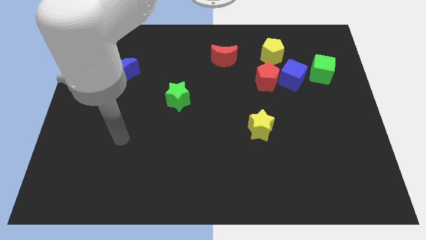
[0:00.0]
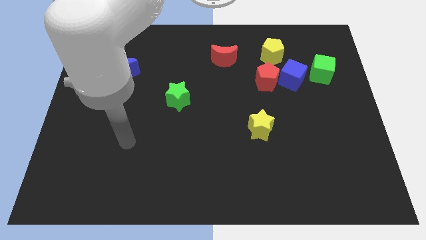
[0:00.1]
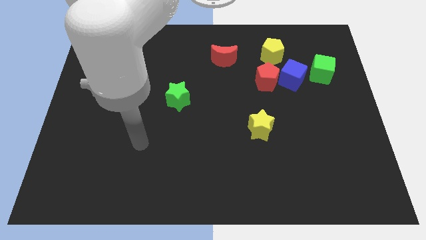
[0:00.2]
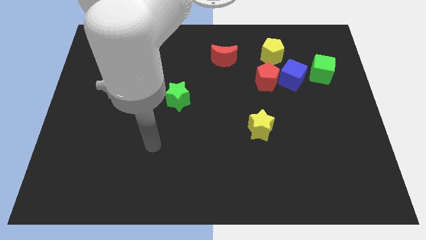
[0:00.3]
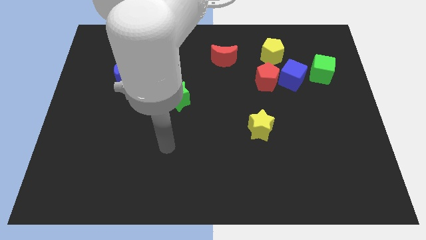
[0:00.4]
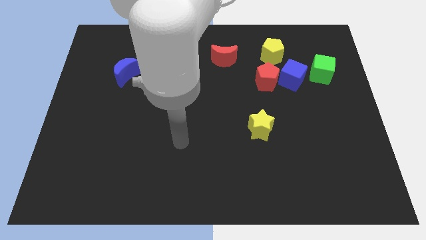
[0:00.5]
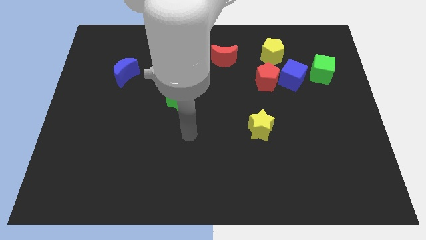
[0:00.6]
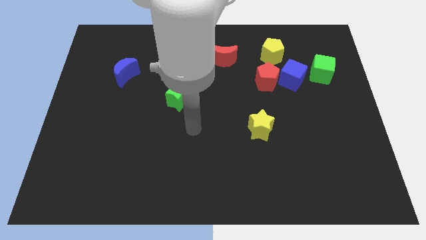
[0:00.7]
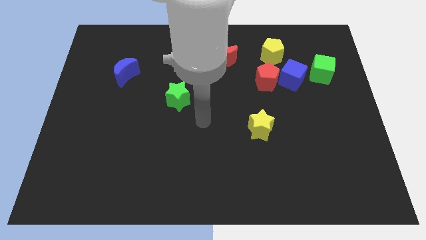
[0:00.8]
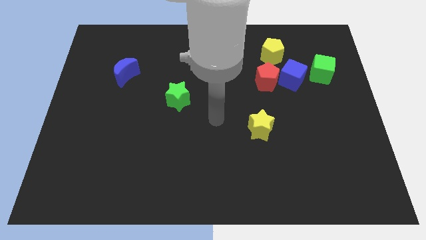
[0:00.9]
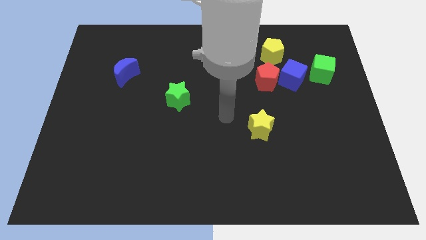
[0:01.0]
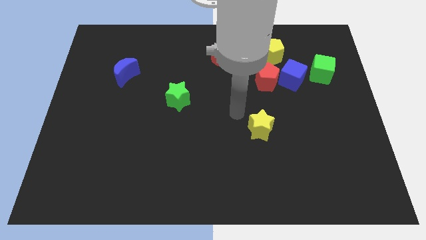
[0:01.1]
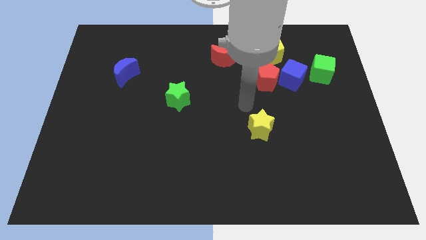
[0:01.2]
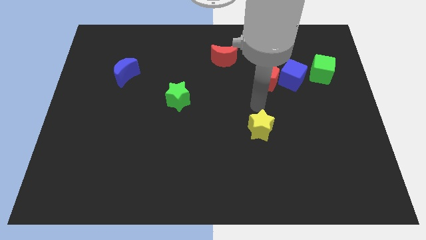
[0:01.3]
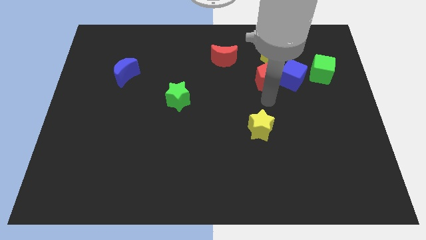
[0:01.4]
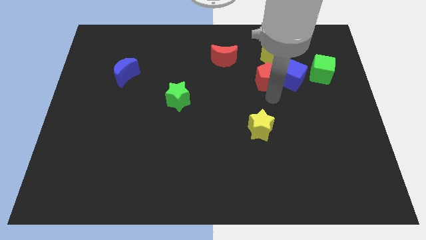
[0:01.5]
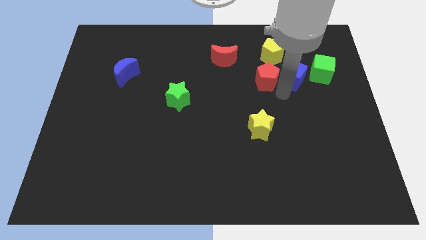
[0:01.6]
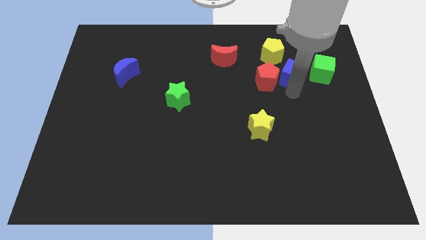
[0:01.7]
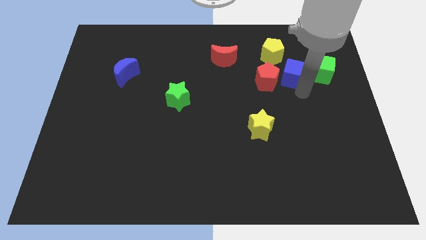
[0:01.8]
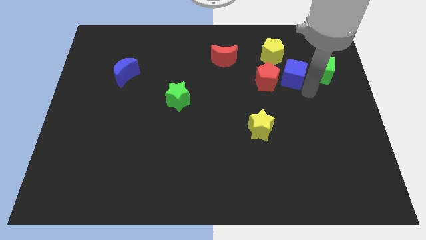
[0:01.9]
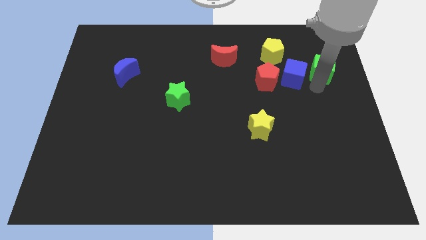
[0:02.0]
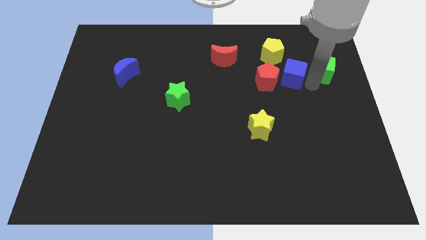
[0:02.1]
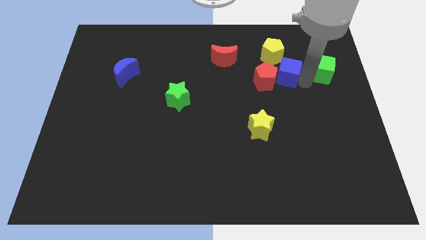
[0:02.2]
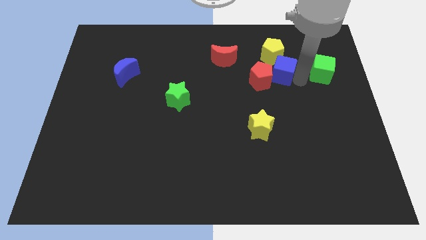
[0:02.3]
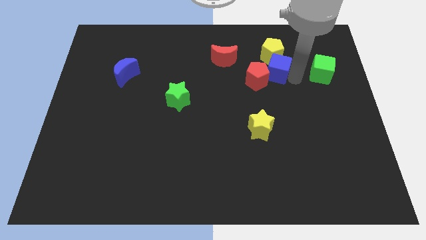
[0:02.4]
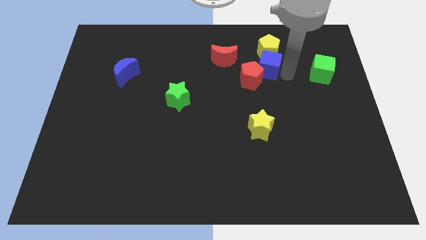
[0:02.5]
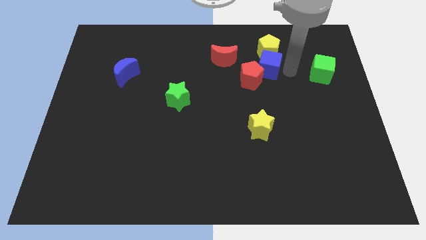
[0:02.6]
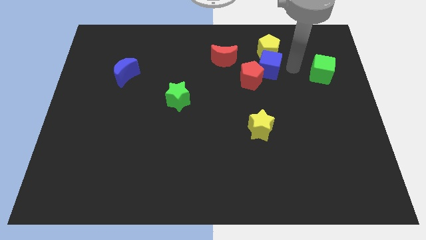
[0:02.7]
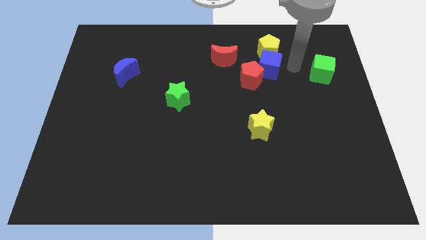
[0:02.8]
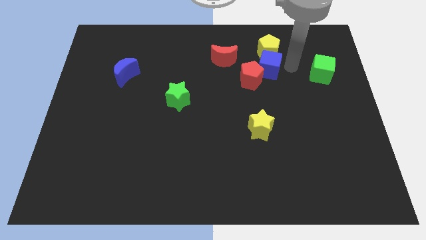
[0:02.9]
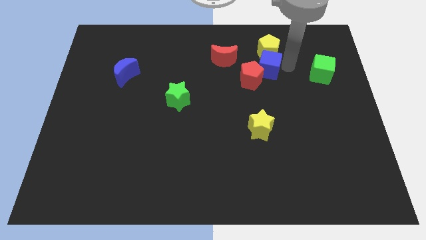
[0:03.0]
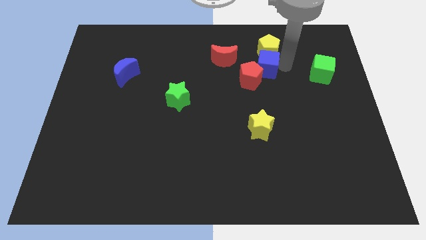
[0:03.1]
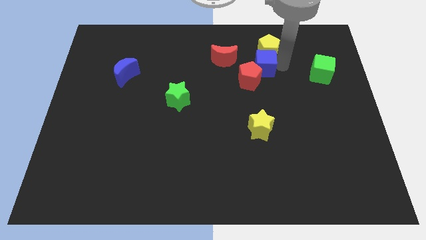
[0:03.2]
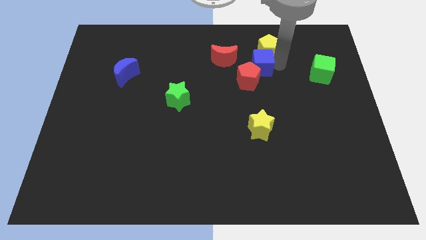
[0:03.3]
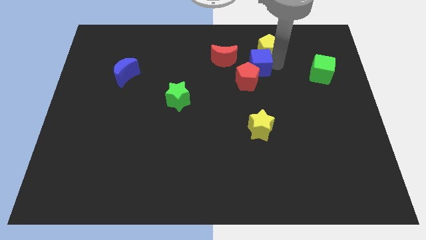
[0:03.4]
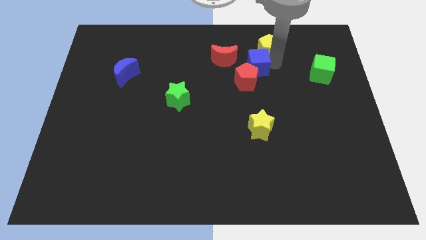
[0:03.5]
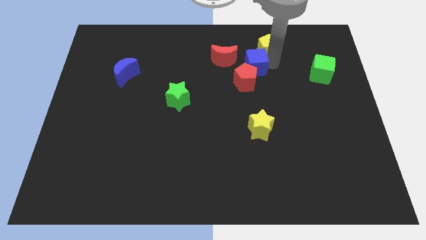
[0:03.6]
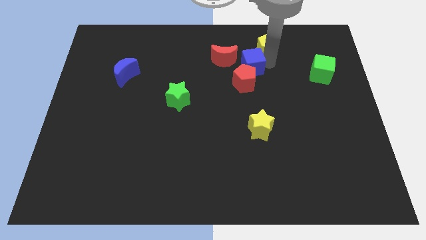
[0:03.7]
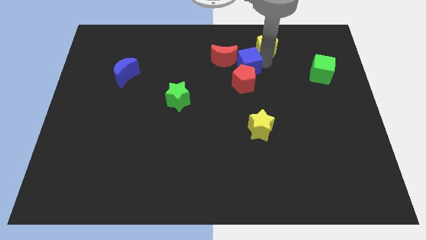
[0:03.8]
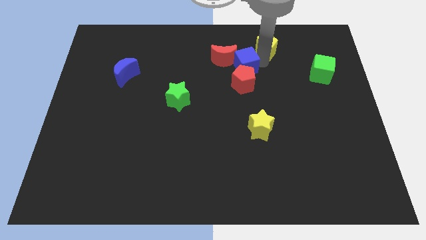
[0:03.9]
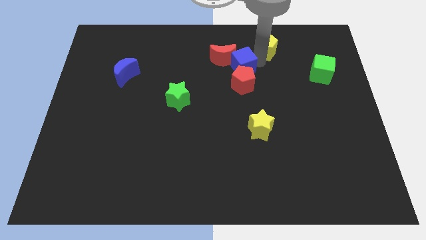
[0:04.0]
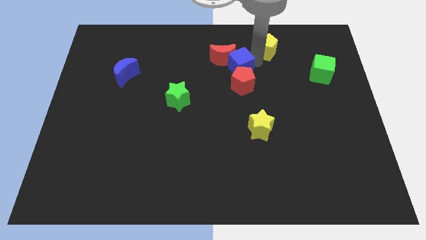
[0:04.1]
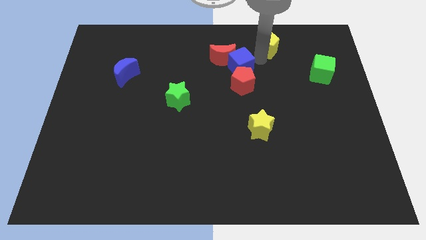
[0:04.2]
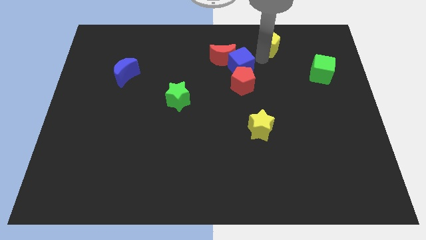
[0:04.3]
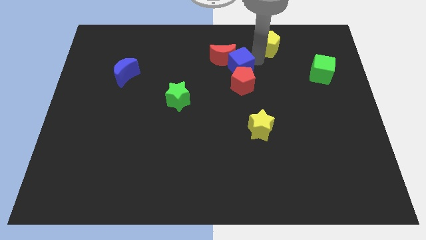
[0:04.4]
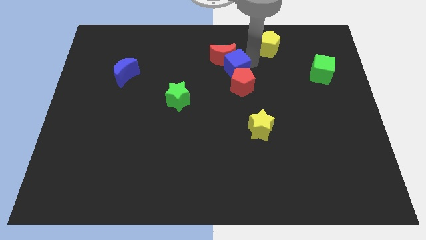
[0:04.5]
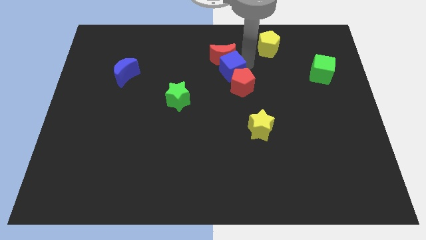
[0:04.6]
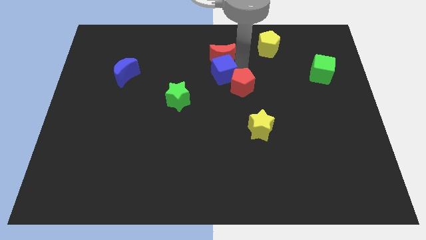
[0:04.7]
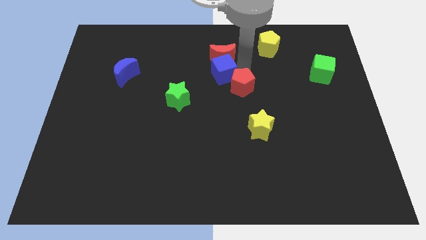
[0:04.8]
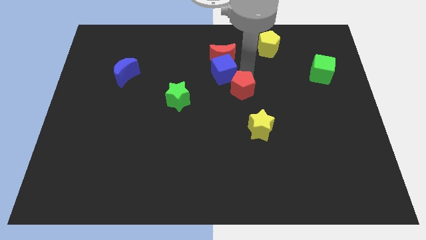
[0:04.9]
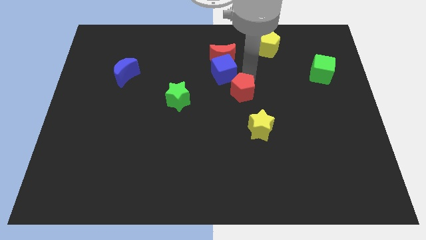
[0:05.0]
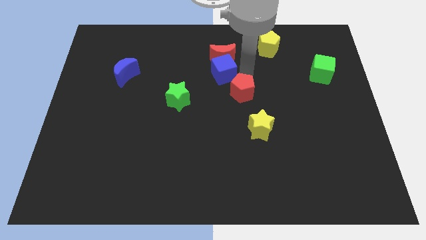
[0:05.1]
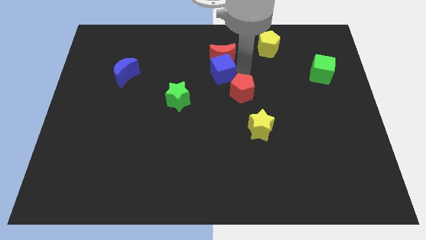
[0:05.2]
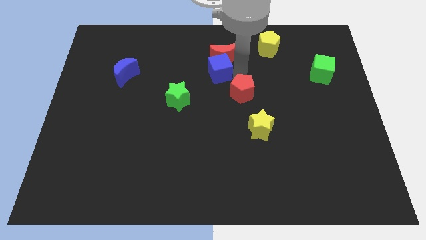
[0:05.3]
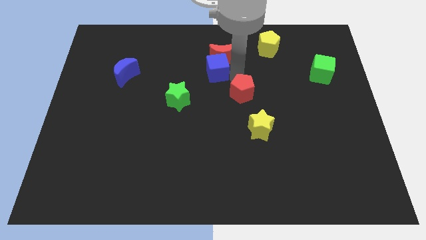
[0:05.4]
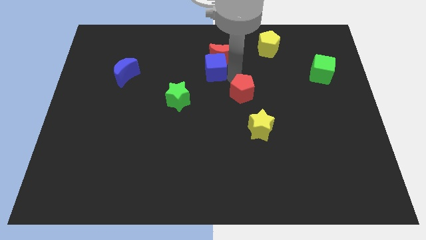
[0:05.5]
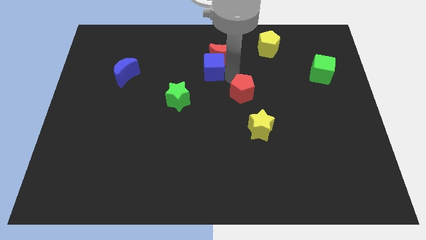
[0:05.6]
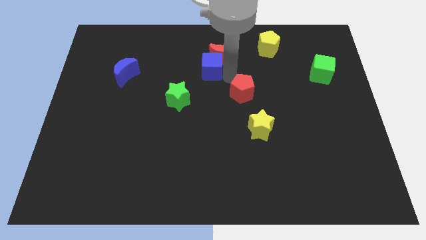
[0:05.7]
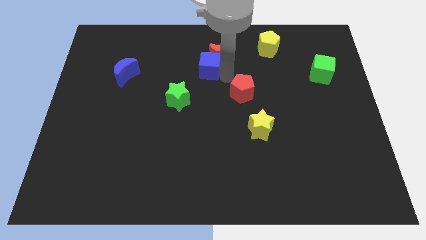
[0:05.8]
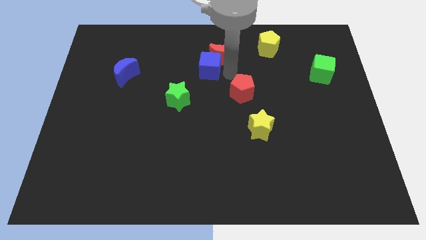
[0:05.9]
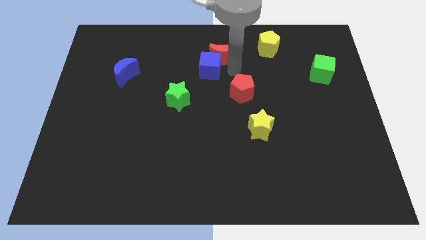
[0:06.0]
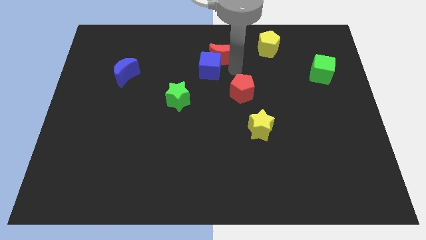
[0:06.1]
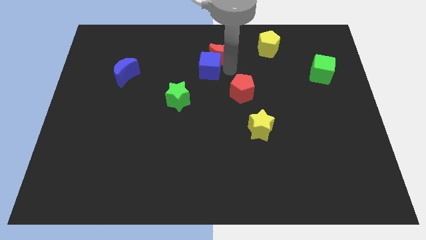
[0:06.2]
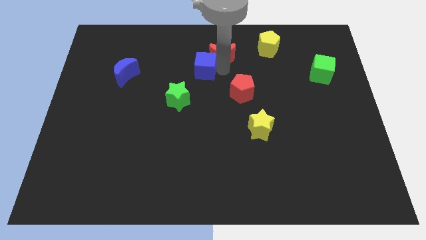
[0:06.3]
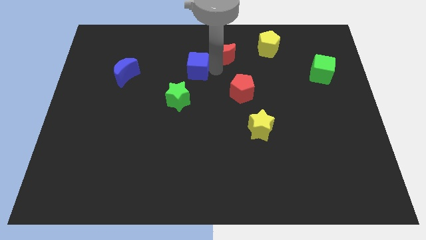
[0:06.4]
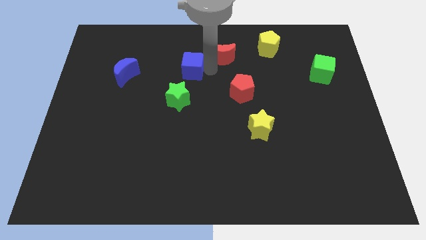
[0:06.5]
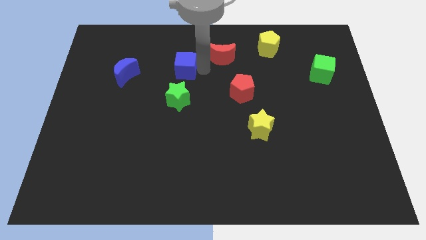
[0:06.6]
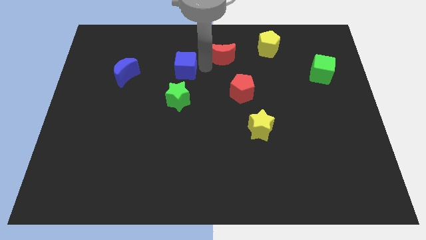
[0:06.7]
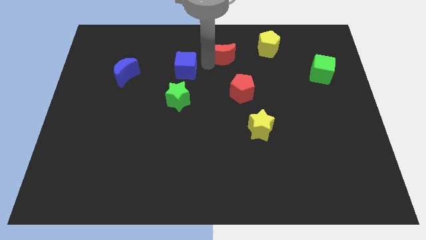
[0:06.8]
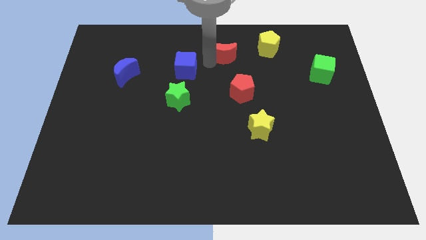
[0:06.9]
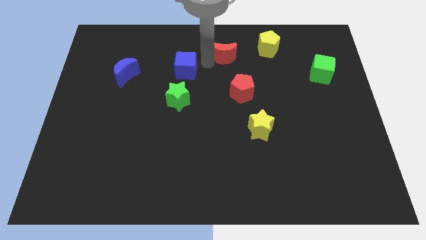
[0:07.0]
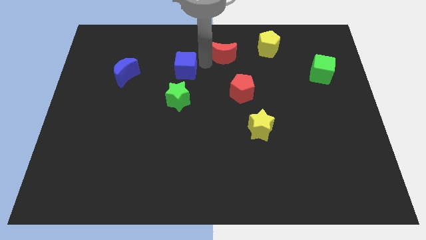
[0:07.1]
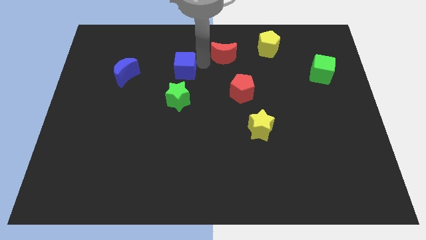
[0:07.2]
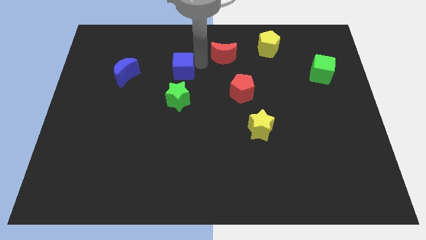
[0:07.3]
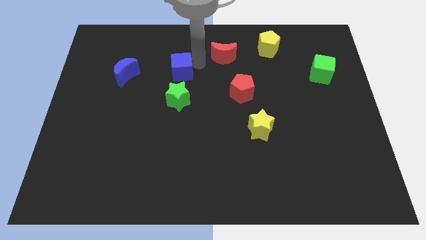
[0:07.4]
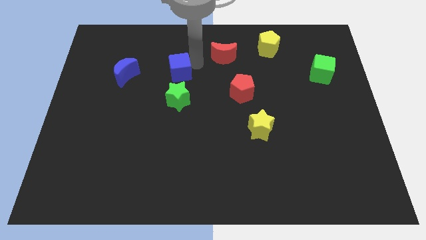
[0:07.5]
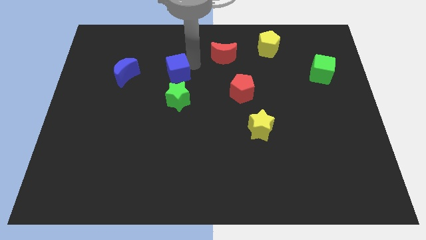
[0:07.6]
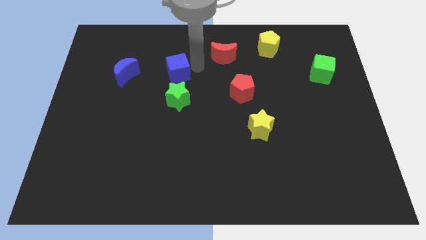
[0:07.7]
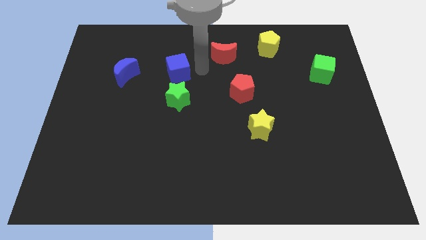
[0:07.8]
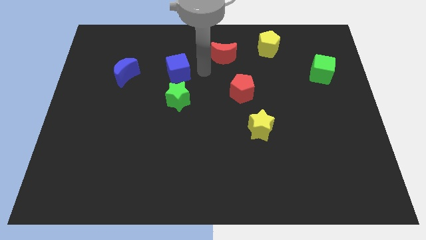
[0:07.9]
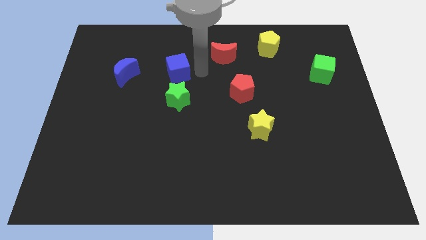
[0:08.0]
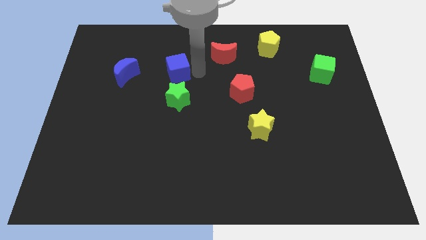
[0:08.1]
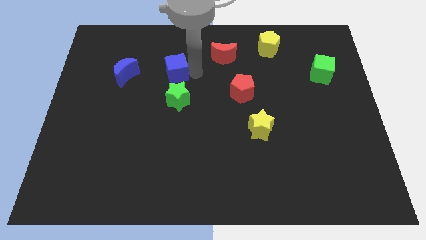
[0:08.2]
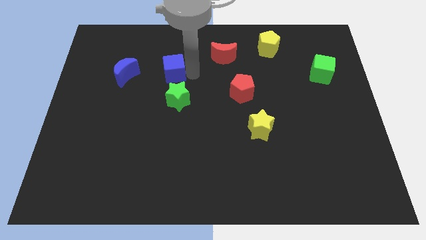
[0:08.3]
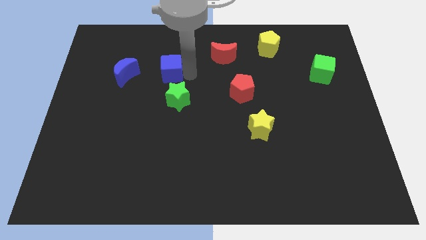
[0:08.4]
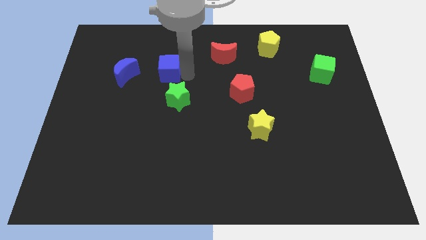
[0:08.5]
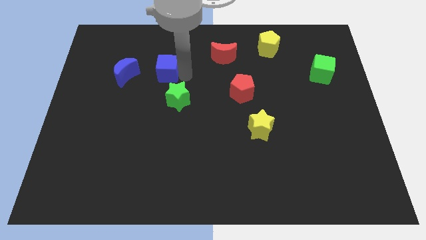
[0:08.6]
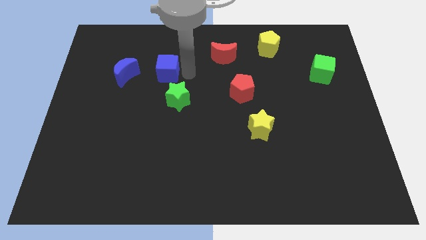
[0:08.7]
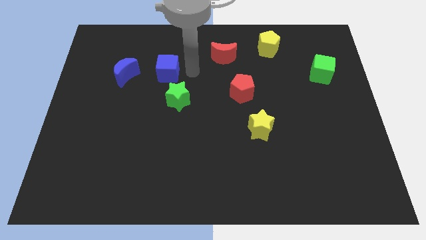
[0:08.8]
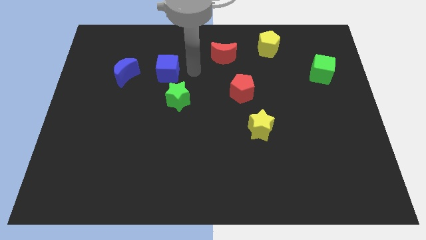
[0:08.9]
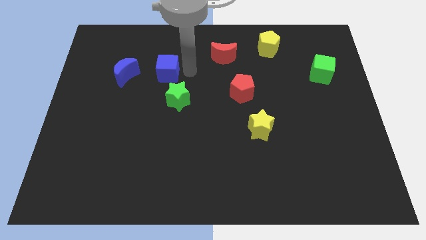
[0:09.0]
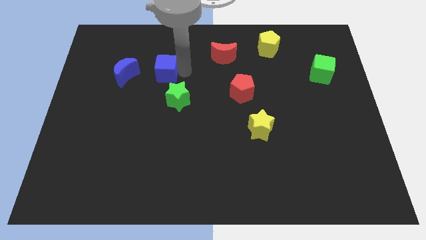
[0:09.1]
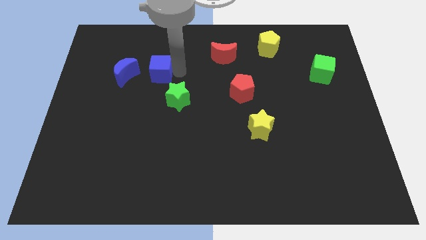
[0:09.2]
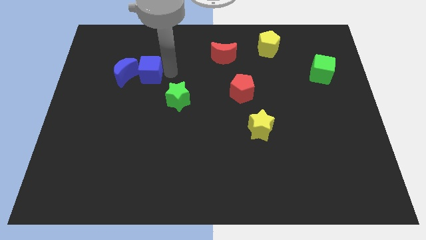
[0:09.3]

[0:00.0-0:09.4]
move the blue cube to the blue moon
